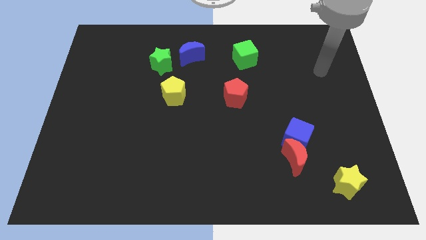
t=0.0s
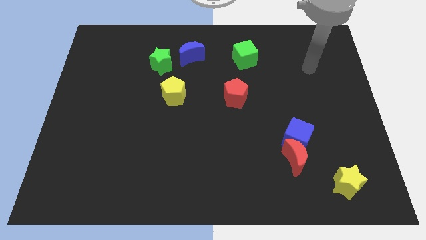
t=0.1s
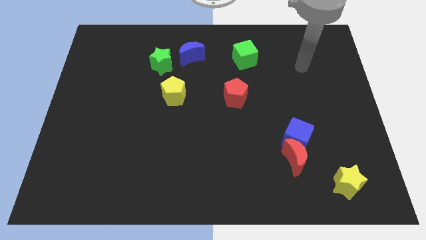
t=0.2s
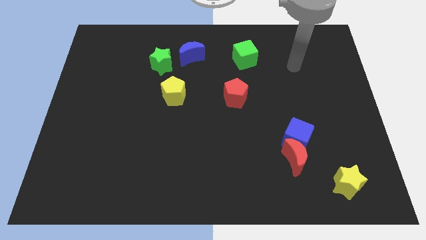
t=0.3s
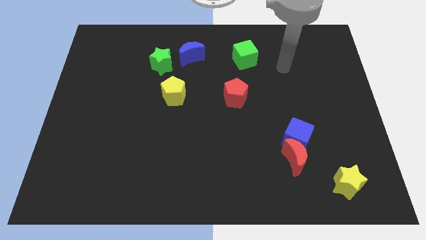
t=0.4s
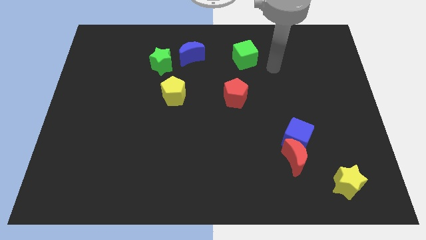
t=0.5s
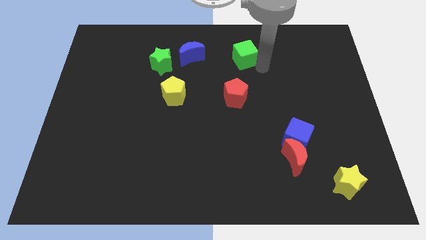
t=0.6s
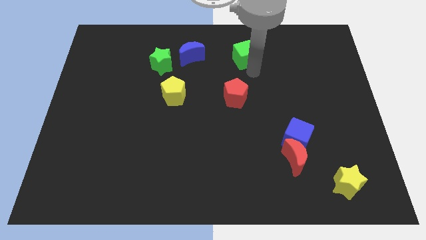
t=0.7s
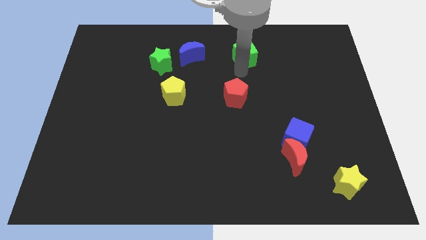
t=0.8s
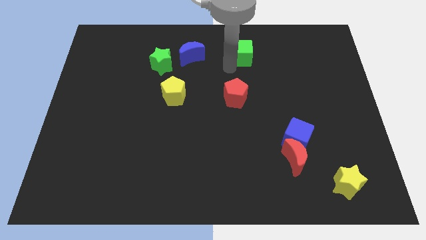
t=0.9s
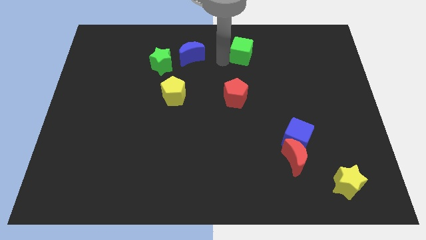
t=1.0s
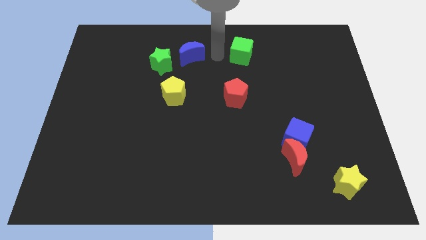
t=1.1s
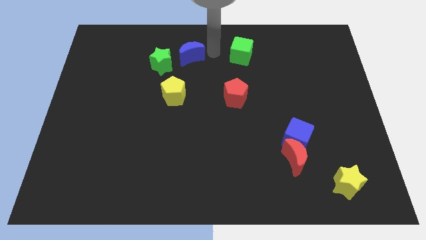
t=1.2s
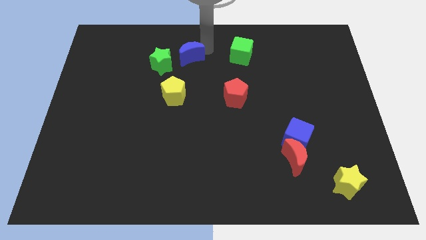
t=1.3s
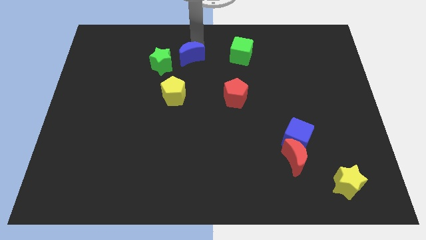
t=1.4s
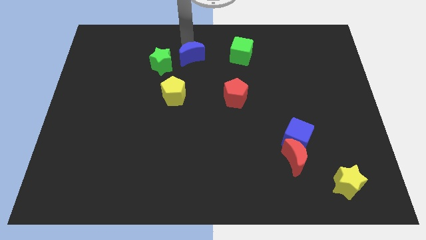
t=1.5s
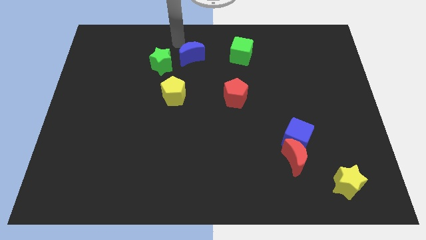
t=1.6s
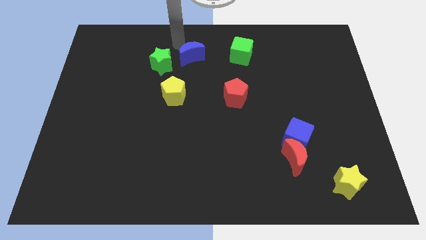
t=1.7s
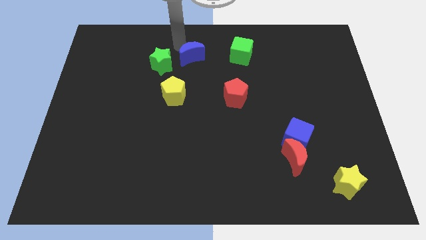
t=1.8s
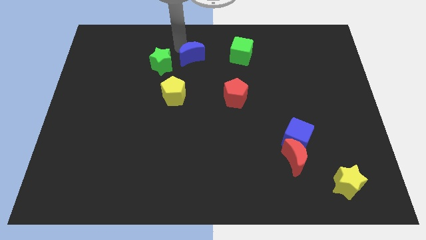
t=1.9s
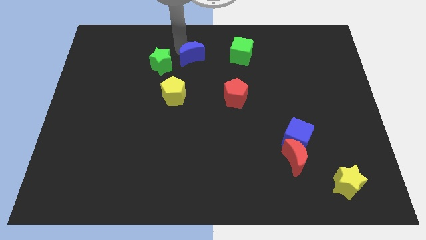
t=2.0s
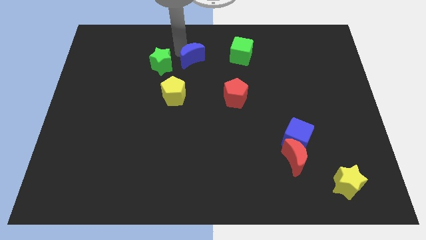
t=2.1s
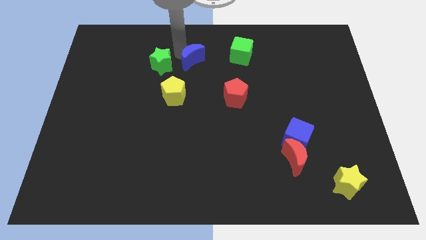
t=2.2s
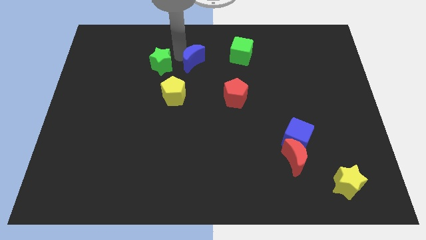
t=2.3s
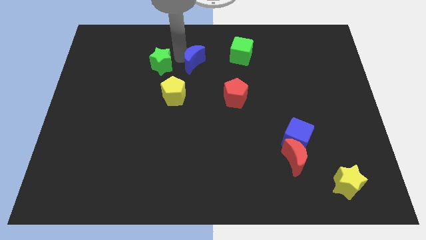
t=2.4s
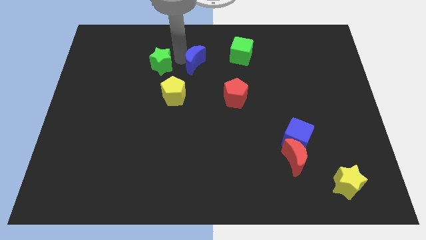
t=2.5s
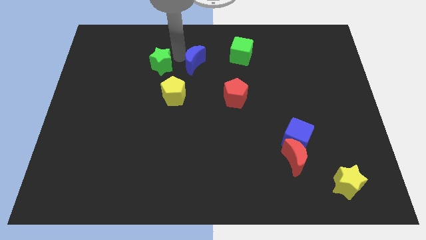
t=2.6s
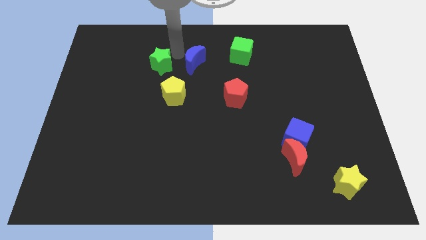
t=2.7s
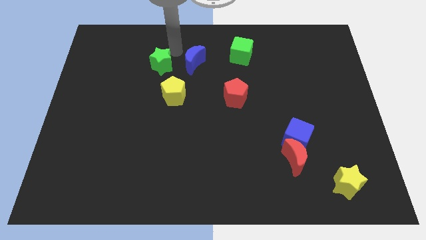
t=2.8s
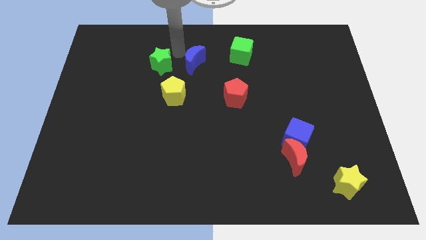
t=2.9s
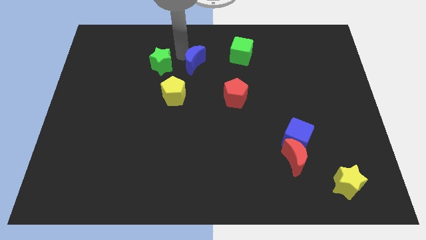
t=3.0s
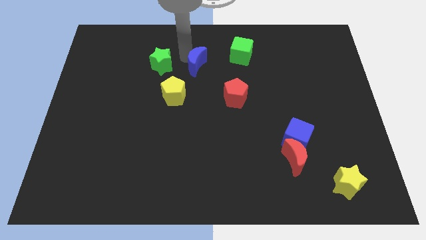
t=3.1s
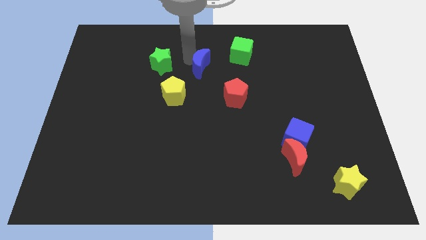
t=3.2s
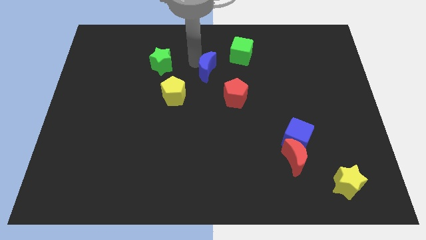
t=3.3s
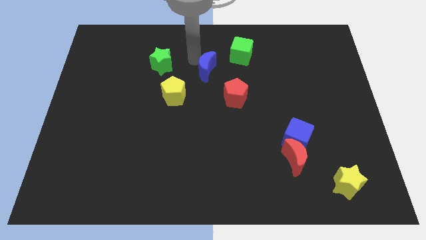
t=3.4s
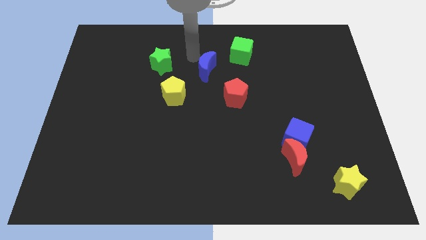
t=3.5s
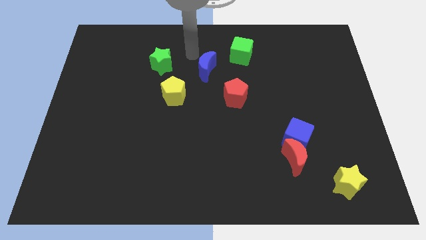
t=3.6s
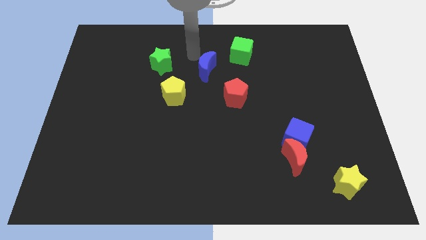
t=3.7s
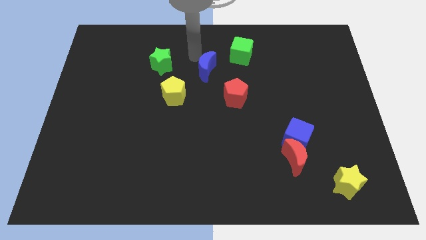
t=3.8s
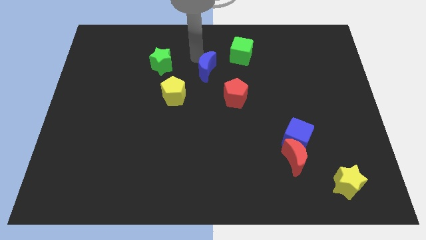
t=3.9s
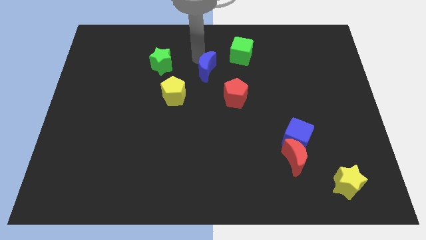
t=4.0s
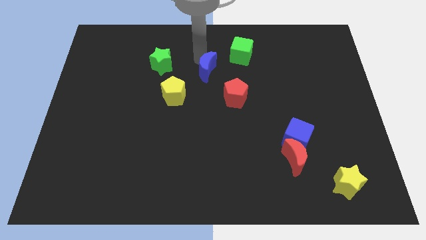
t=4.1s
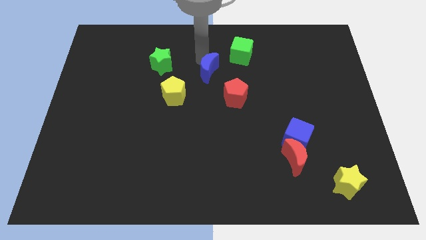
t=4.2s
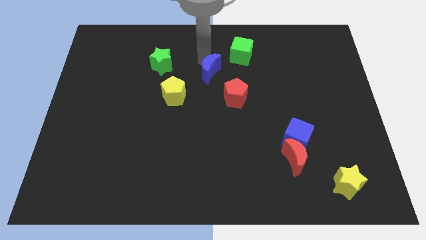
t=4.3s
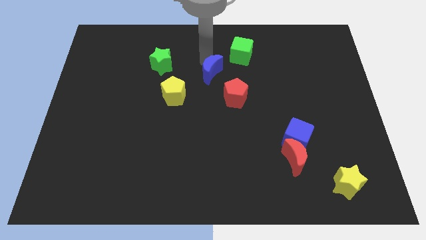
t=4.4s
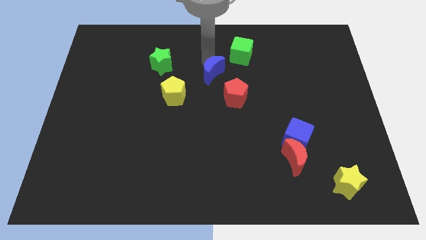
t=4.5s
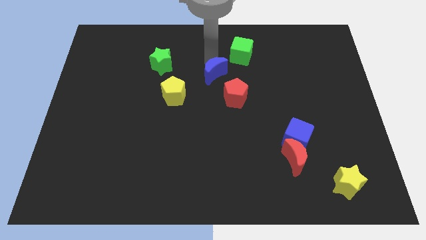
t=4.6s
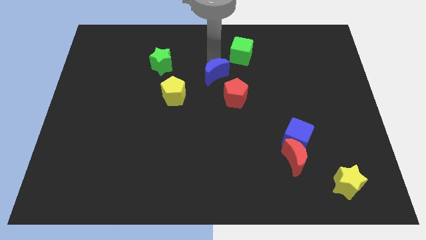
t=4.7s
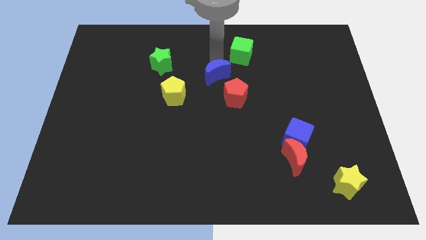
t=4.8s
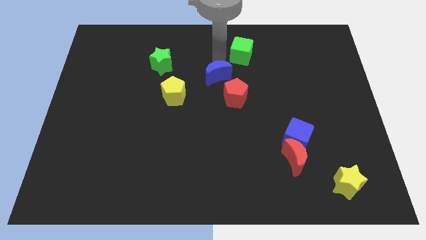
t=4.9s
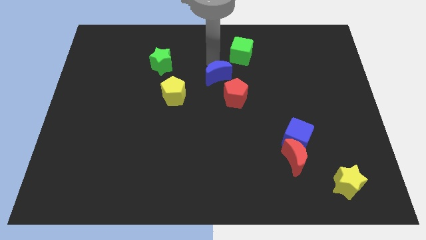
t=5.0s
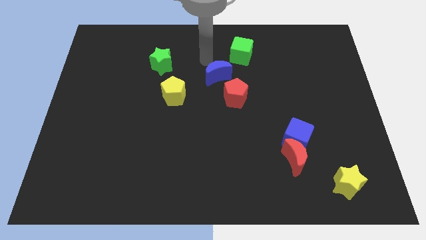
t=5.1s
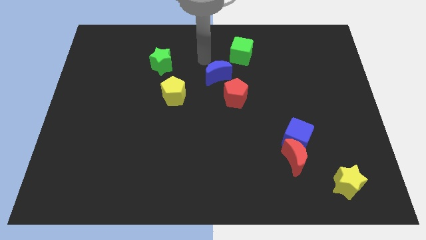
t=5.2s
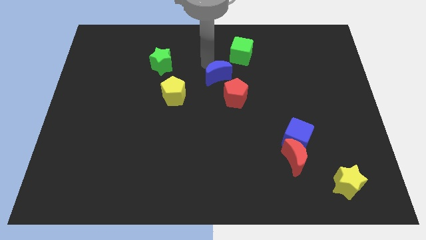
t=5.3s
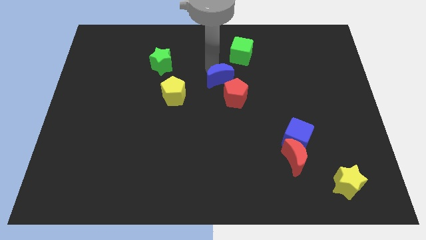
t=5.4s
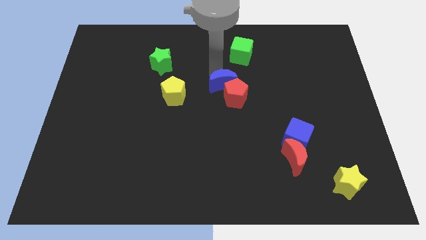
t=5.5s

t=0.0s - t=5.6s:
slide the blue moon close to the red pentagon

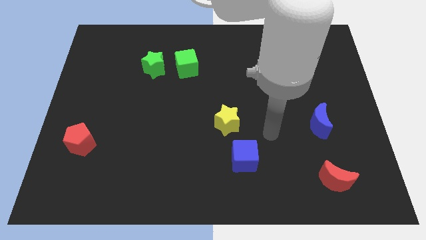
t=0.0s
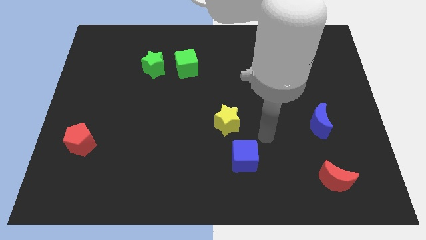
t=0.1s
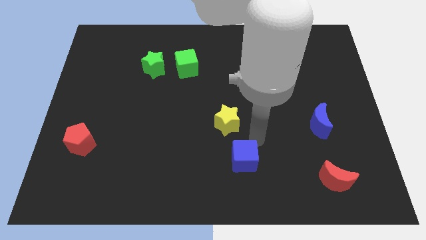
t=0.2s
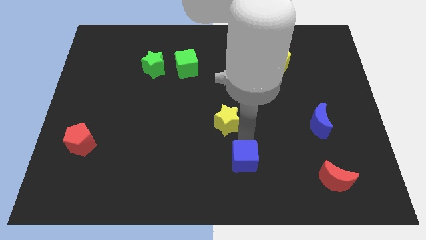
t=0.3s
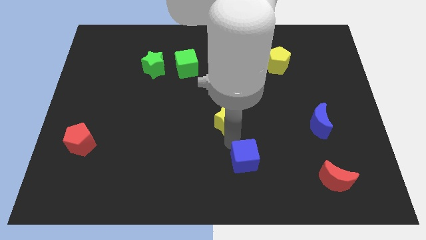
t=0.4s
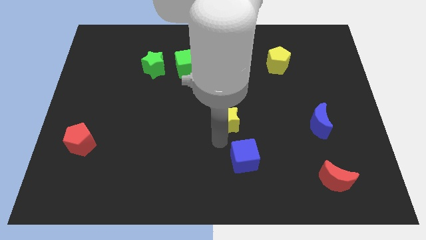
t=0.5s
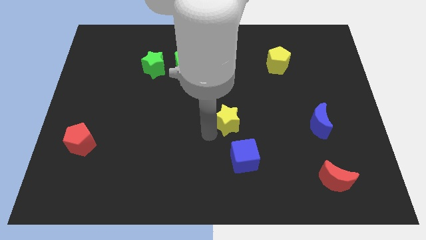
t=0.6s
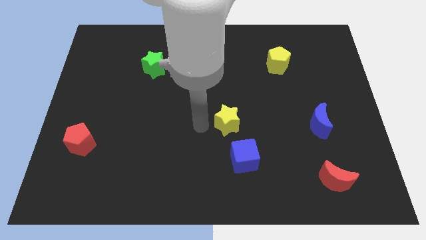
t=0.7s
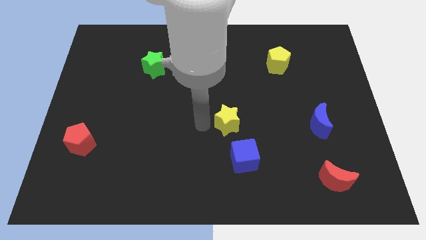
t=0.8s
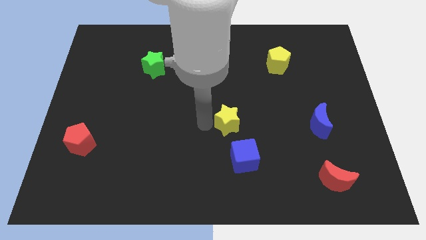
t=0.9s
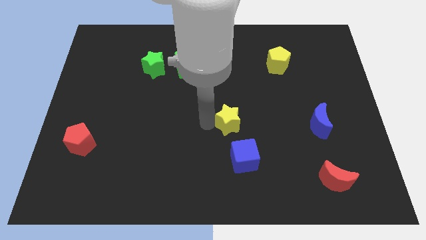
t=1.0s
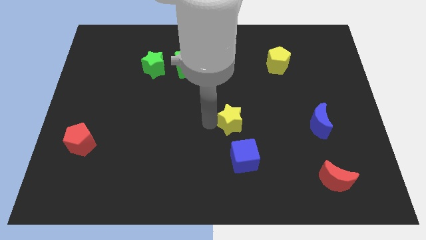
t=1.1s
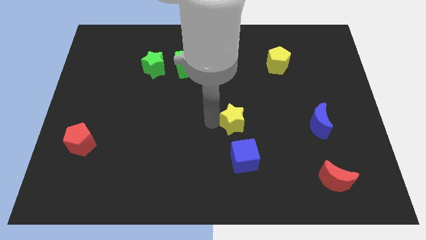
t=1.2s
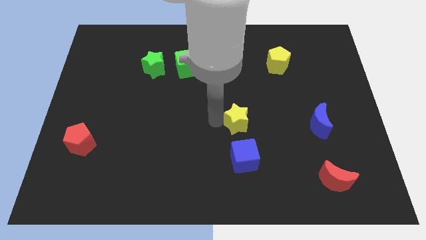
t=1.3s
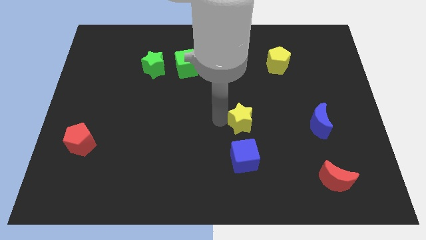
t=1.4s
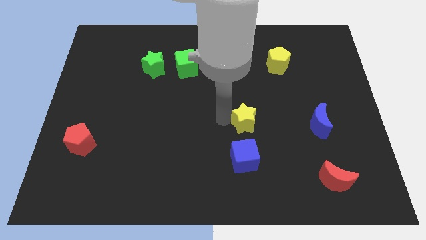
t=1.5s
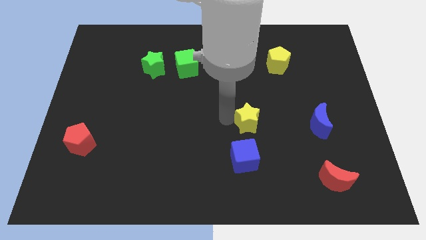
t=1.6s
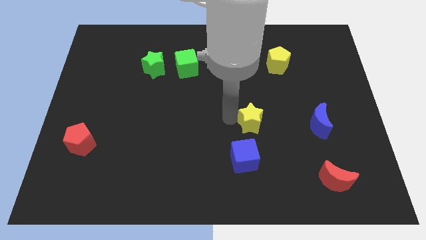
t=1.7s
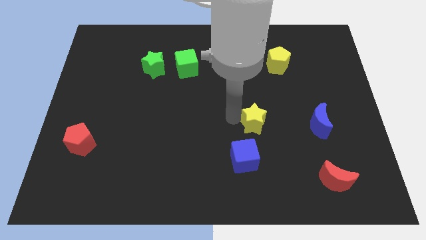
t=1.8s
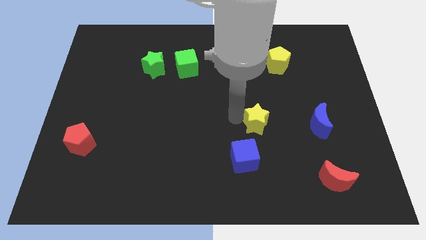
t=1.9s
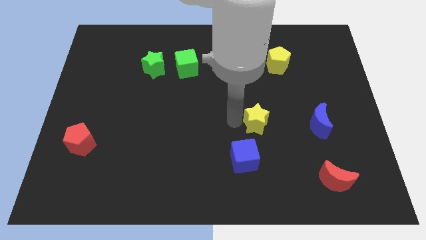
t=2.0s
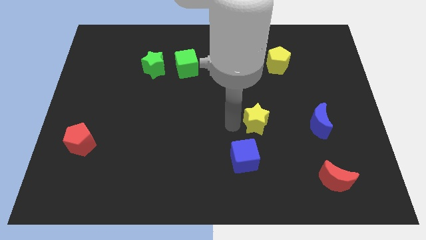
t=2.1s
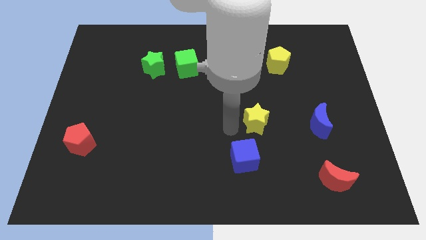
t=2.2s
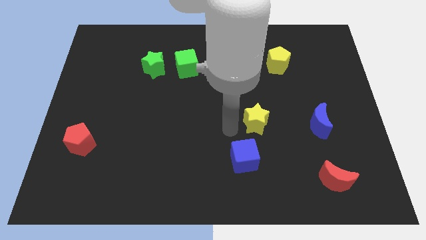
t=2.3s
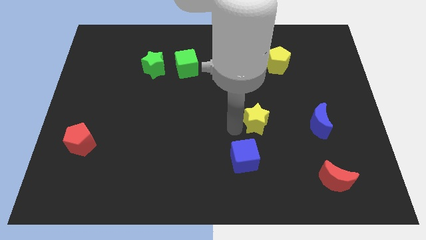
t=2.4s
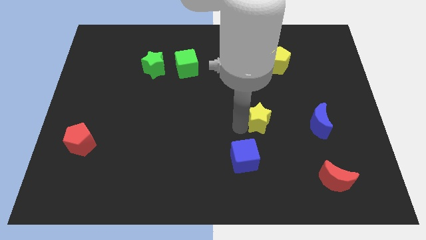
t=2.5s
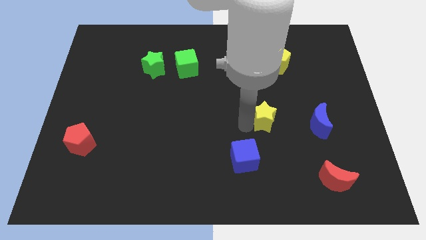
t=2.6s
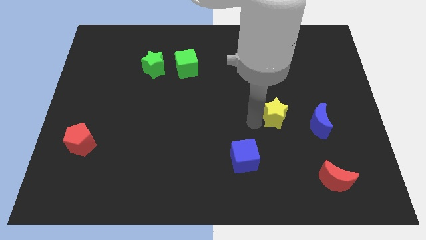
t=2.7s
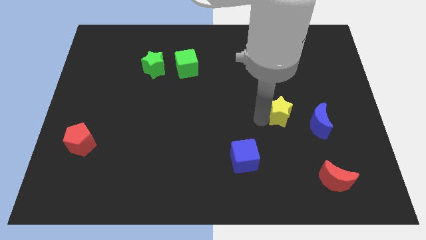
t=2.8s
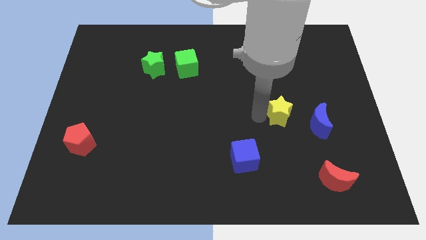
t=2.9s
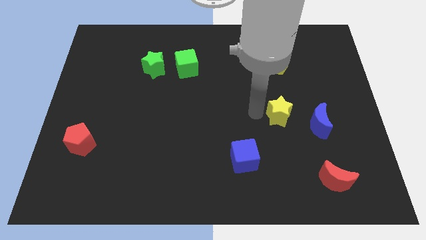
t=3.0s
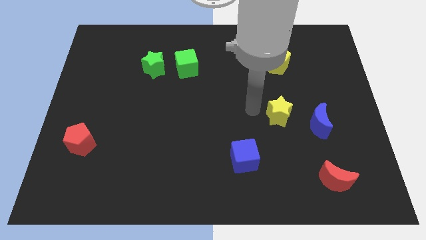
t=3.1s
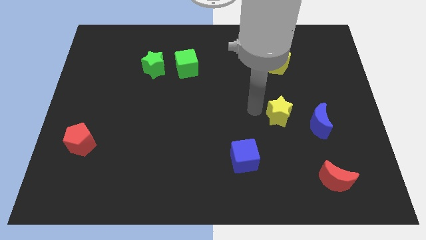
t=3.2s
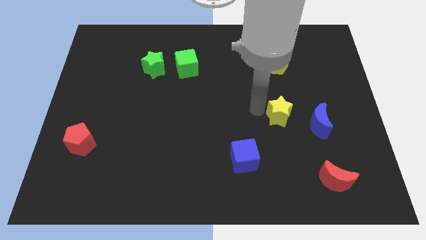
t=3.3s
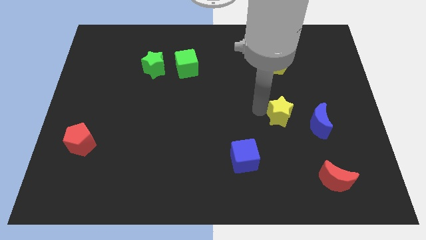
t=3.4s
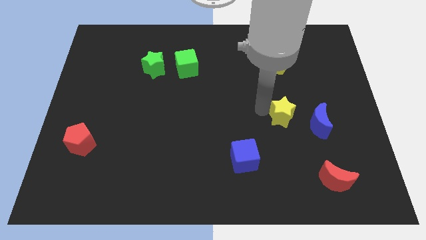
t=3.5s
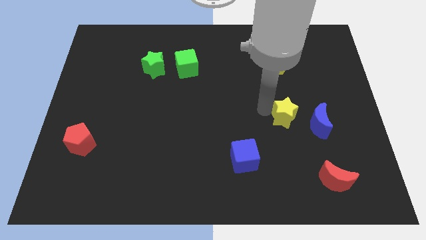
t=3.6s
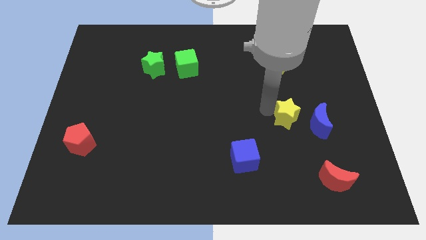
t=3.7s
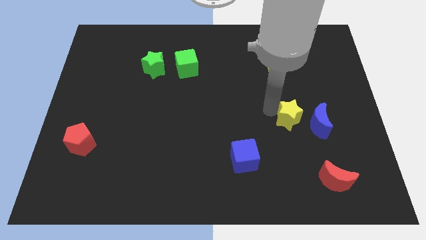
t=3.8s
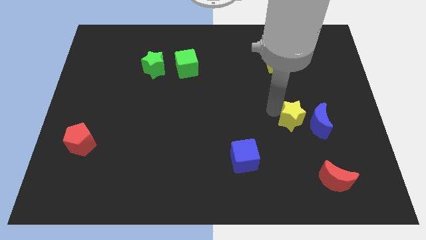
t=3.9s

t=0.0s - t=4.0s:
slide the yellow star to the blue moon
